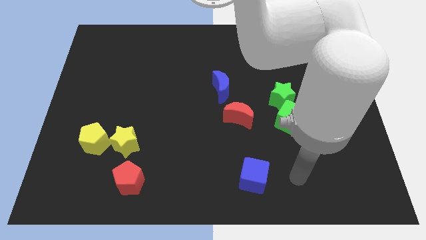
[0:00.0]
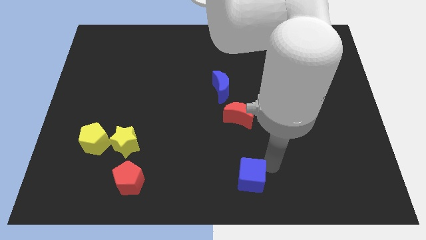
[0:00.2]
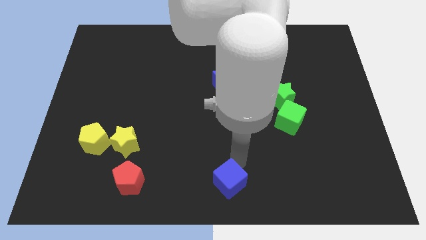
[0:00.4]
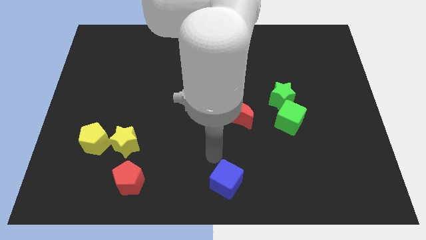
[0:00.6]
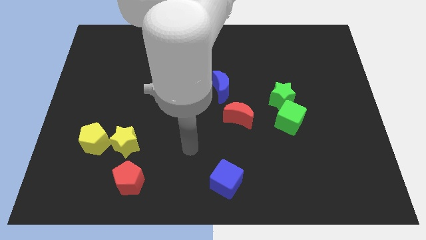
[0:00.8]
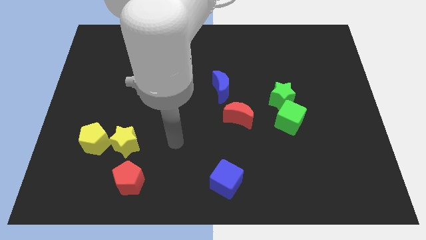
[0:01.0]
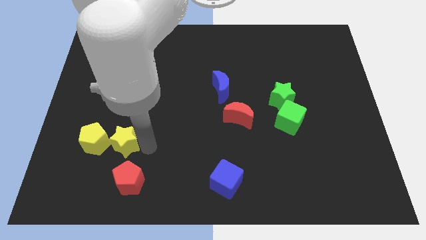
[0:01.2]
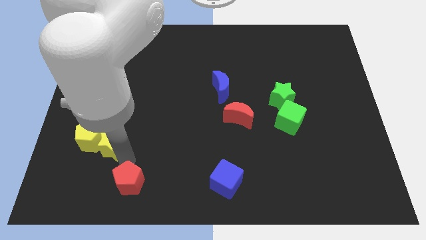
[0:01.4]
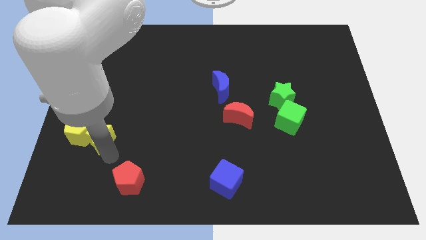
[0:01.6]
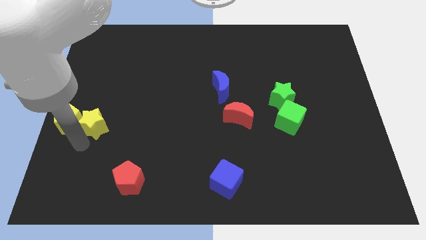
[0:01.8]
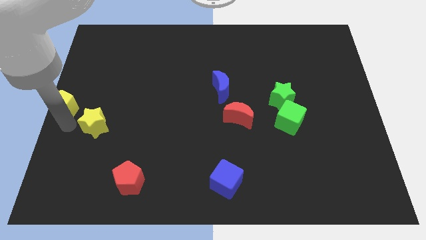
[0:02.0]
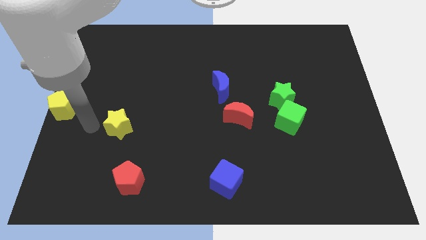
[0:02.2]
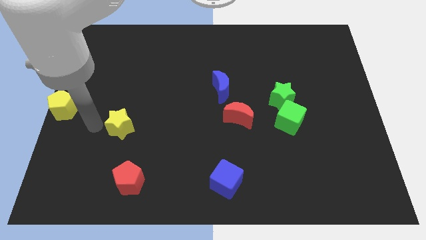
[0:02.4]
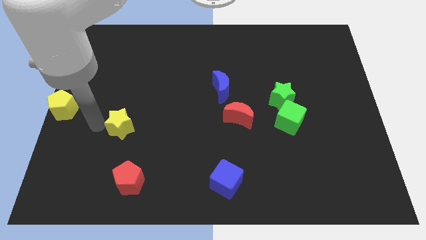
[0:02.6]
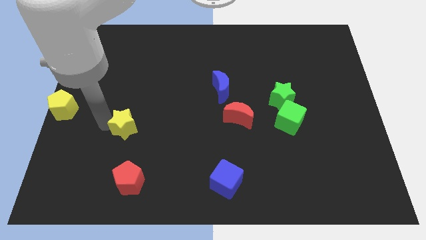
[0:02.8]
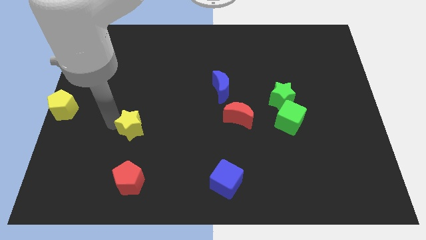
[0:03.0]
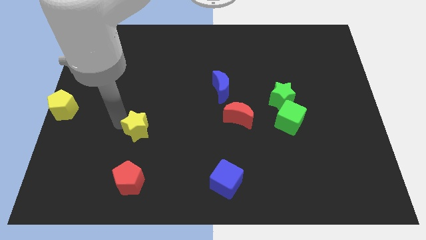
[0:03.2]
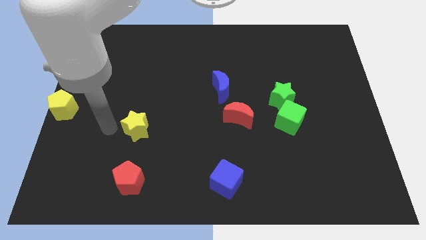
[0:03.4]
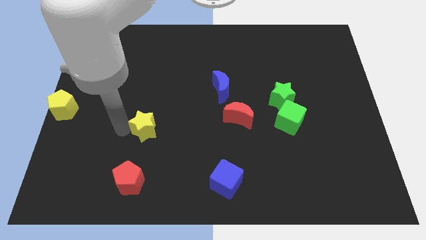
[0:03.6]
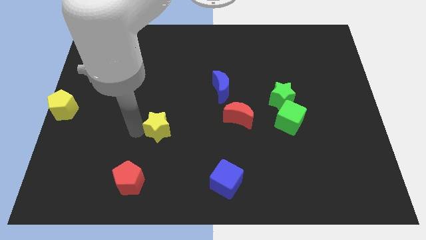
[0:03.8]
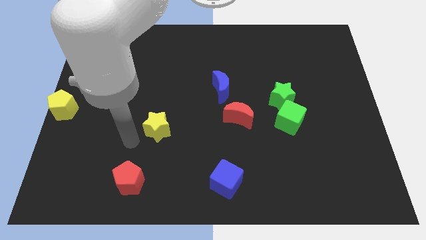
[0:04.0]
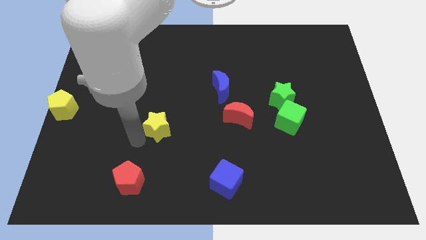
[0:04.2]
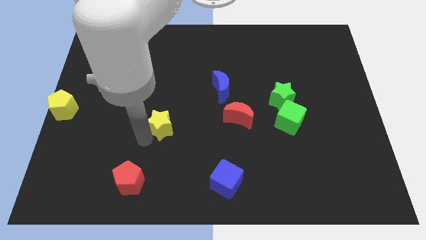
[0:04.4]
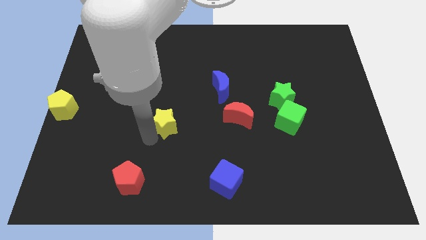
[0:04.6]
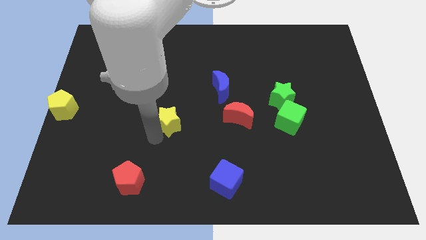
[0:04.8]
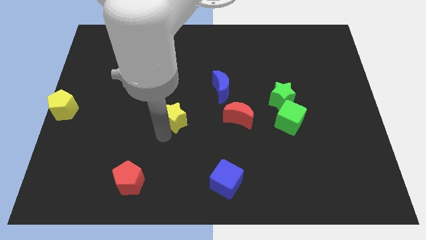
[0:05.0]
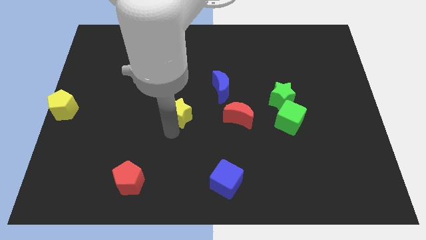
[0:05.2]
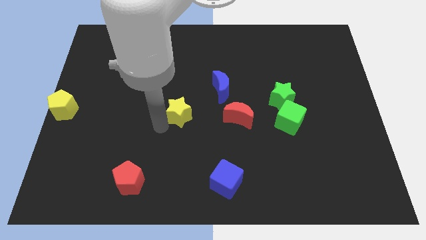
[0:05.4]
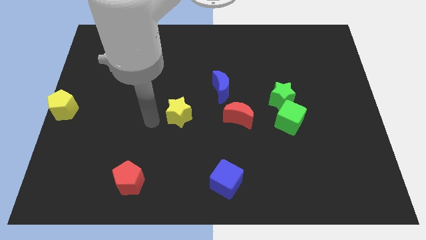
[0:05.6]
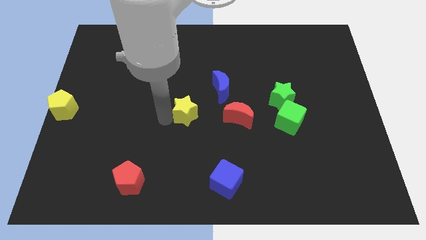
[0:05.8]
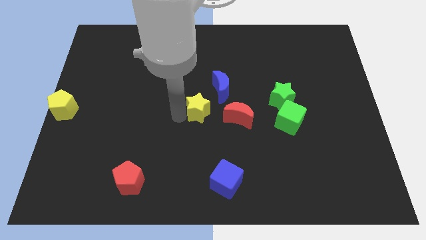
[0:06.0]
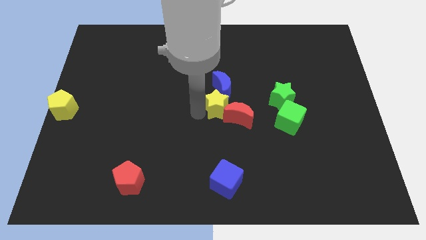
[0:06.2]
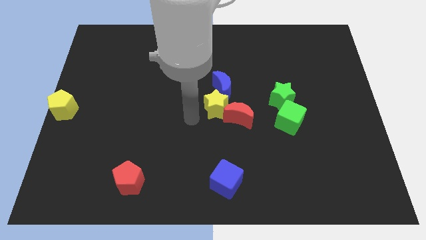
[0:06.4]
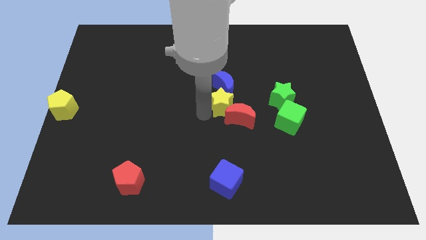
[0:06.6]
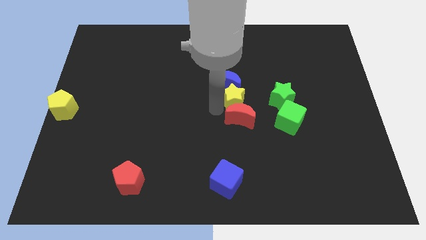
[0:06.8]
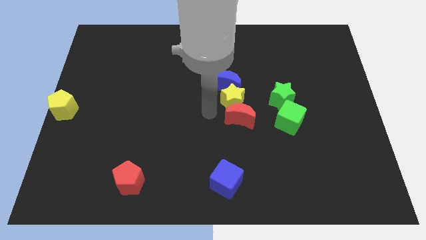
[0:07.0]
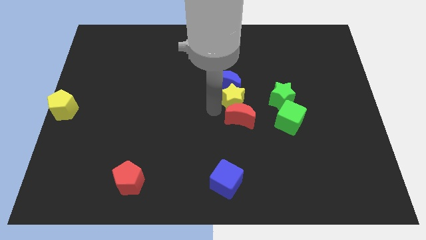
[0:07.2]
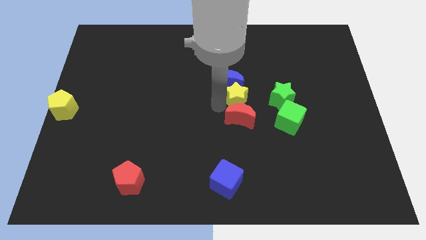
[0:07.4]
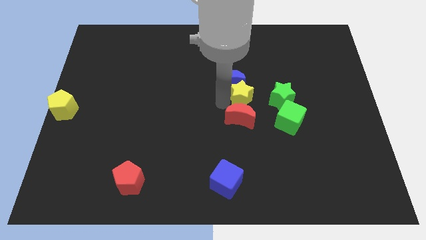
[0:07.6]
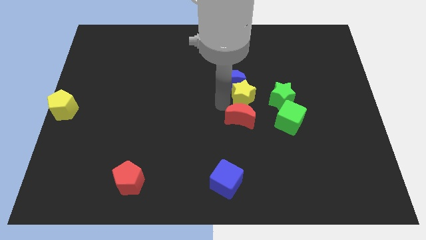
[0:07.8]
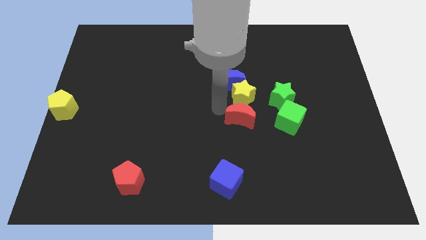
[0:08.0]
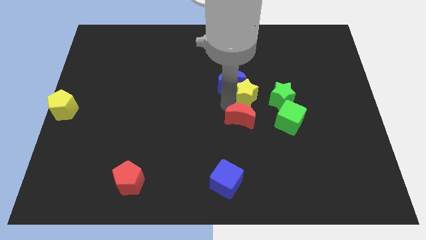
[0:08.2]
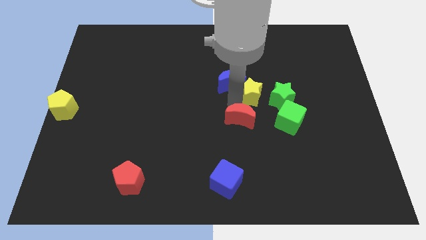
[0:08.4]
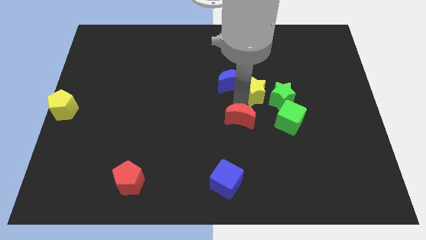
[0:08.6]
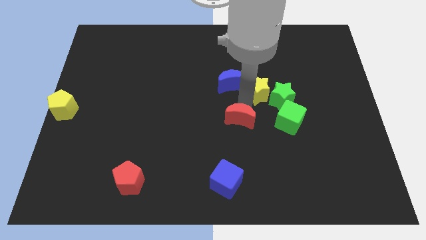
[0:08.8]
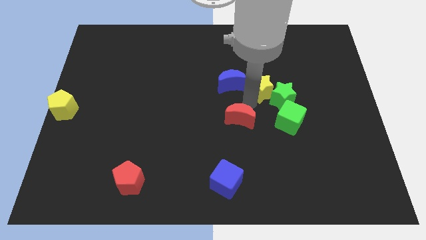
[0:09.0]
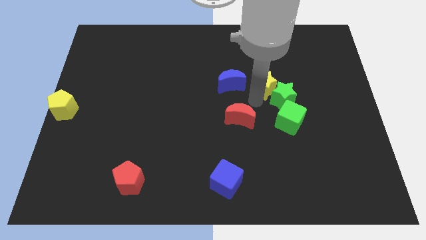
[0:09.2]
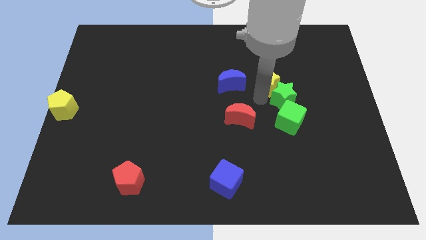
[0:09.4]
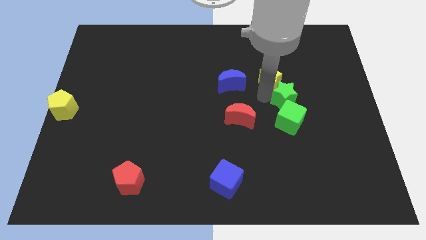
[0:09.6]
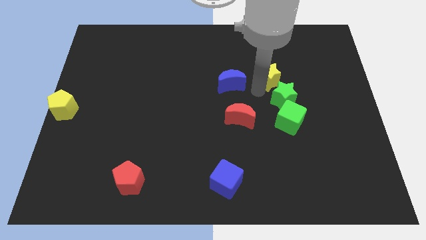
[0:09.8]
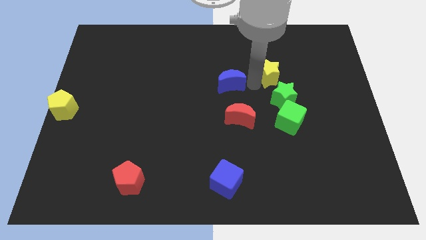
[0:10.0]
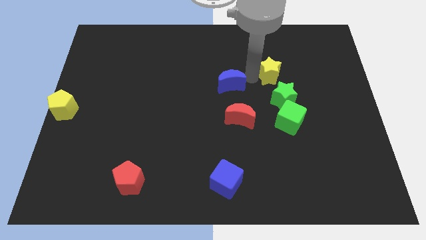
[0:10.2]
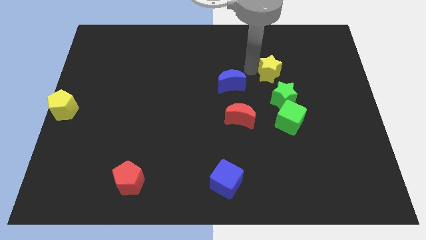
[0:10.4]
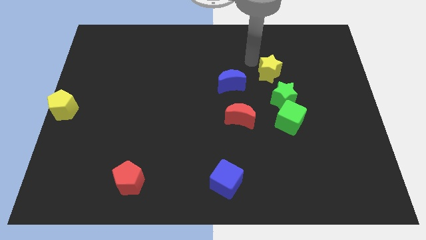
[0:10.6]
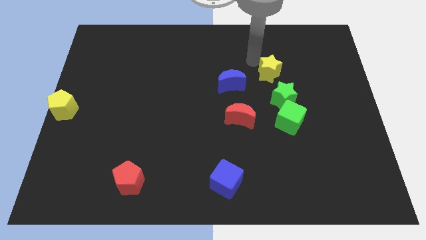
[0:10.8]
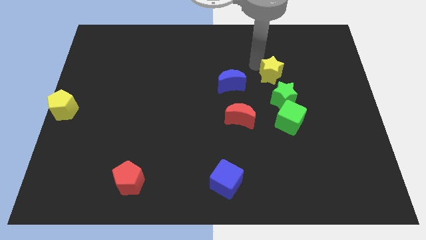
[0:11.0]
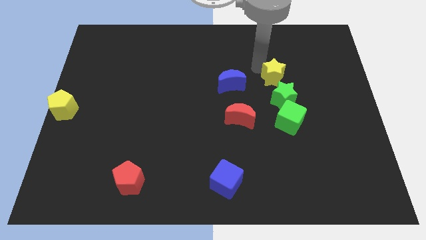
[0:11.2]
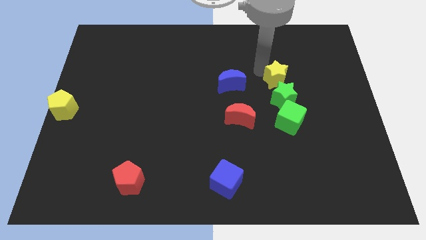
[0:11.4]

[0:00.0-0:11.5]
put the yellow star to the top right side of the green star

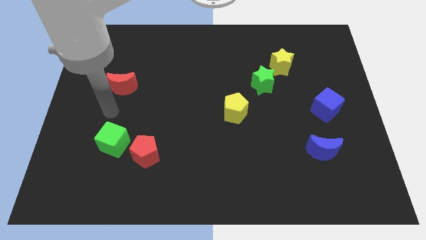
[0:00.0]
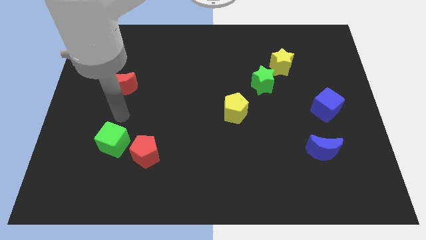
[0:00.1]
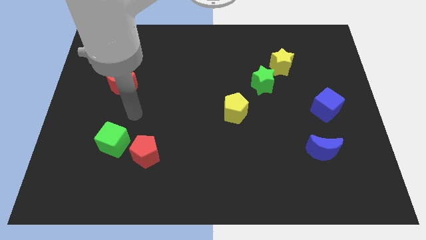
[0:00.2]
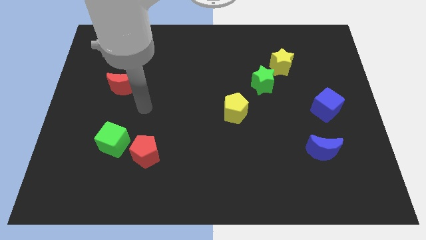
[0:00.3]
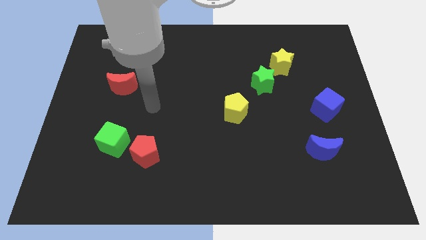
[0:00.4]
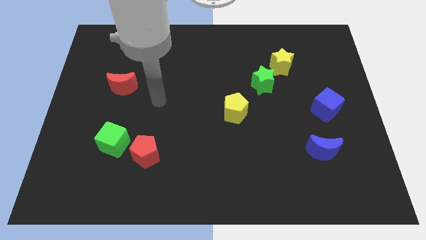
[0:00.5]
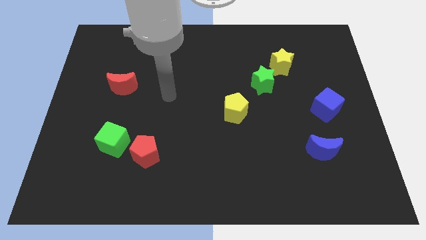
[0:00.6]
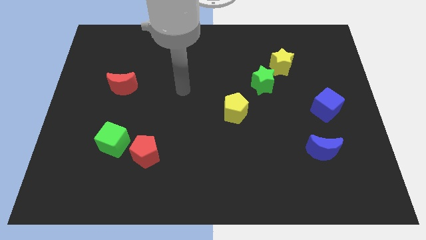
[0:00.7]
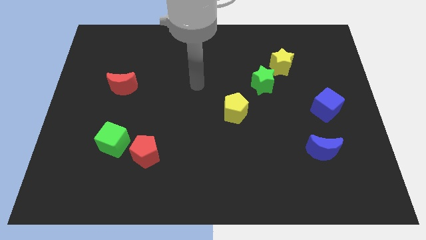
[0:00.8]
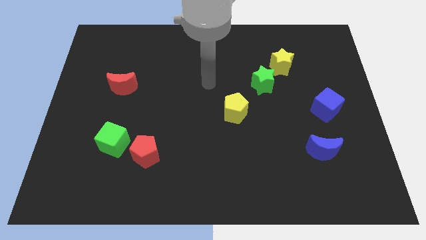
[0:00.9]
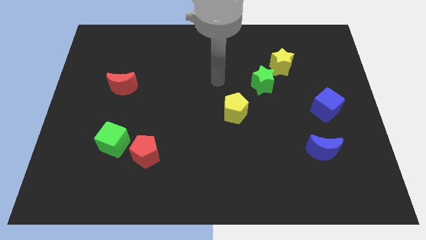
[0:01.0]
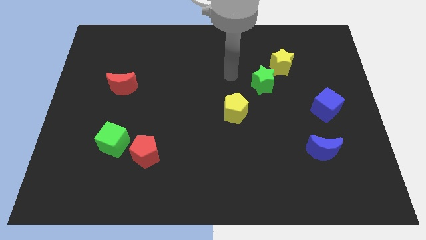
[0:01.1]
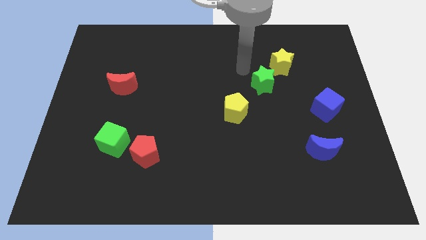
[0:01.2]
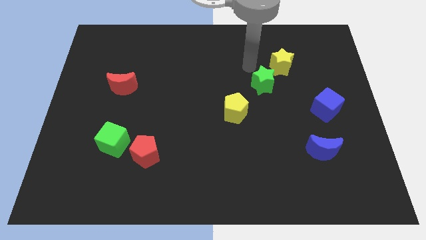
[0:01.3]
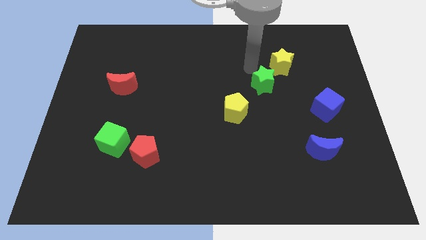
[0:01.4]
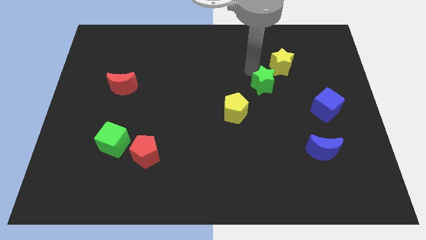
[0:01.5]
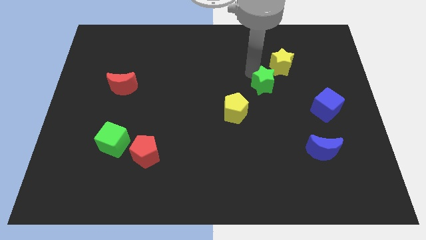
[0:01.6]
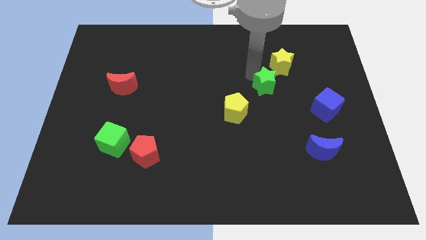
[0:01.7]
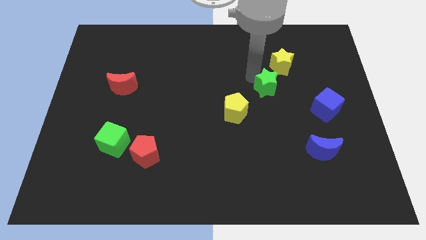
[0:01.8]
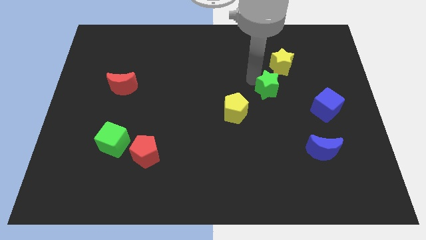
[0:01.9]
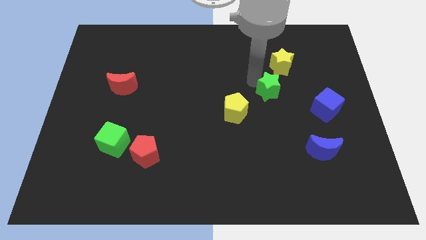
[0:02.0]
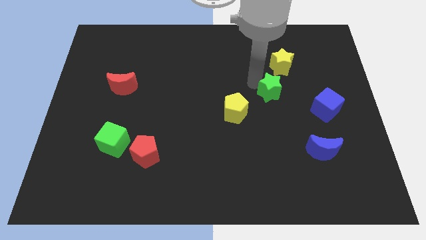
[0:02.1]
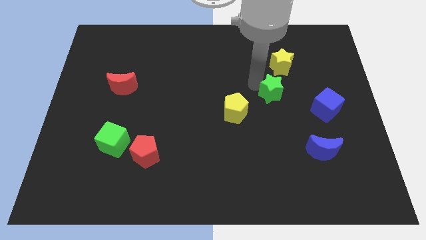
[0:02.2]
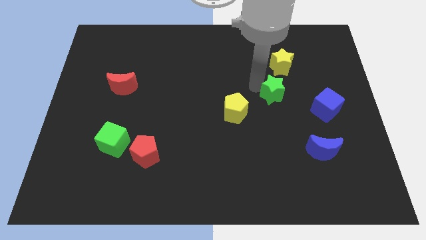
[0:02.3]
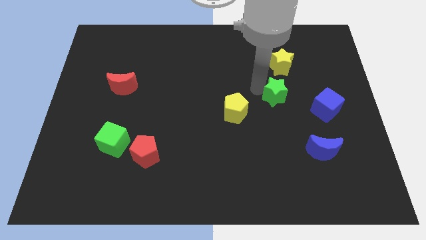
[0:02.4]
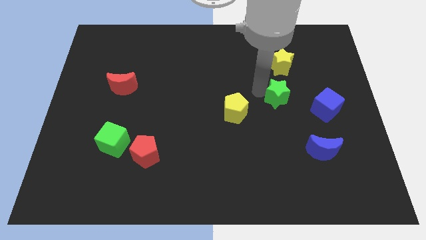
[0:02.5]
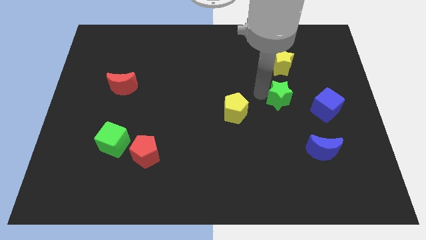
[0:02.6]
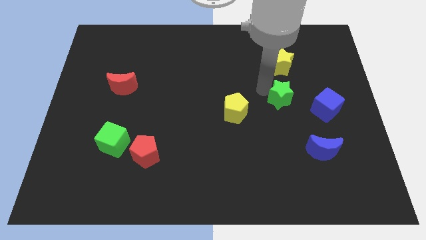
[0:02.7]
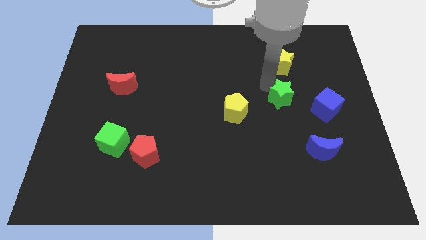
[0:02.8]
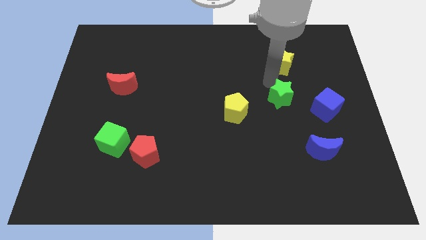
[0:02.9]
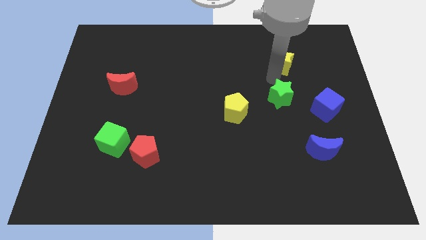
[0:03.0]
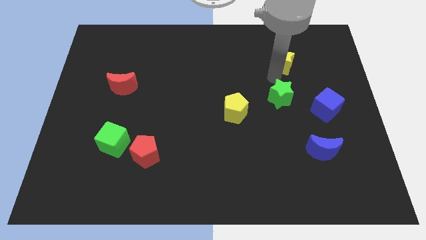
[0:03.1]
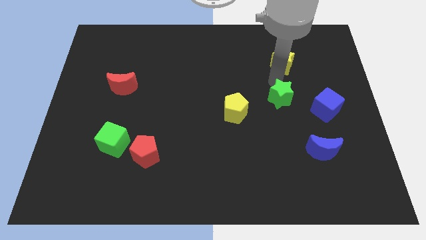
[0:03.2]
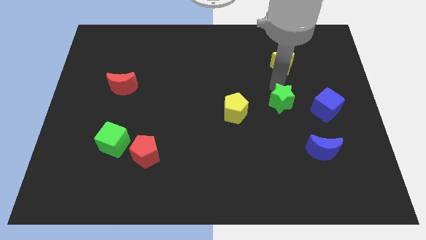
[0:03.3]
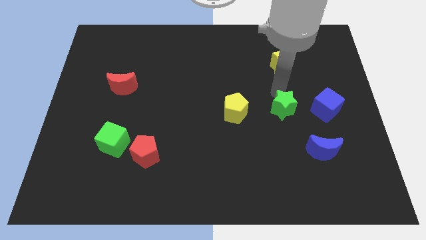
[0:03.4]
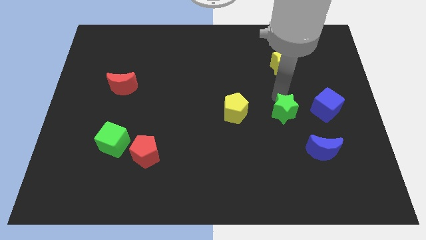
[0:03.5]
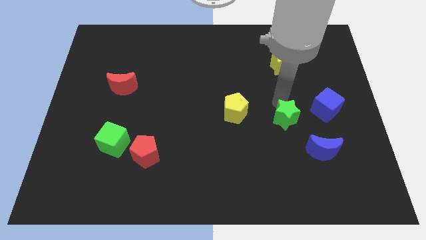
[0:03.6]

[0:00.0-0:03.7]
slide the green star diagonally up and to the left of the blue moon
